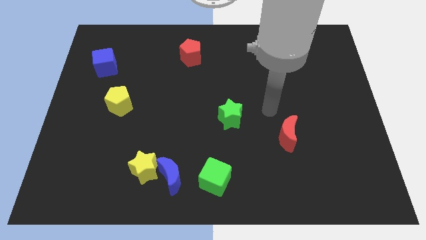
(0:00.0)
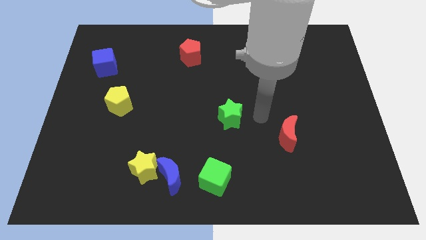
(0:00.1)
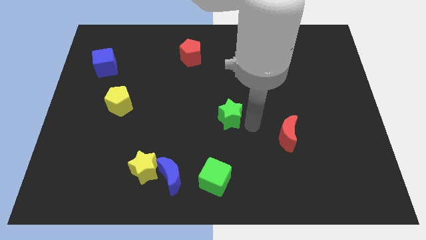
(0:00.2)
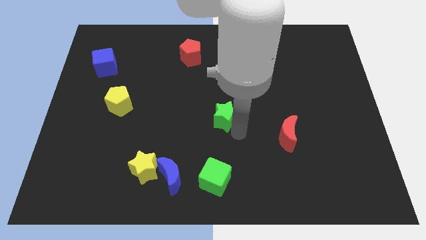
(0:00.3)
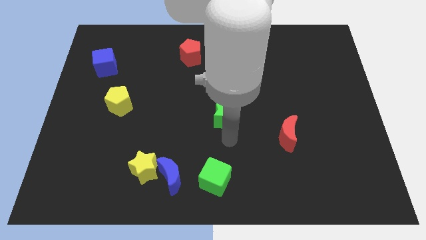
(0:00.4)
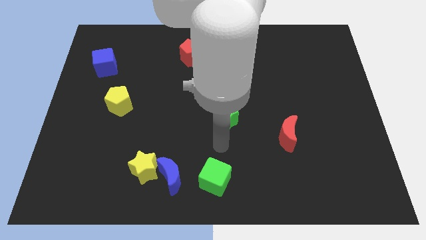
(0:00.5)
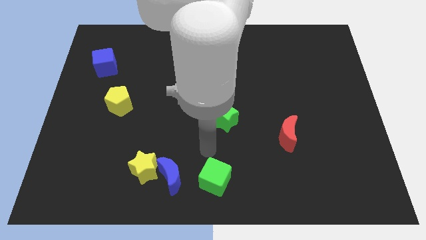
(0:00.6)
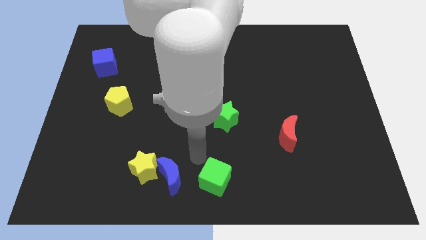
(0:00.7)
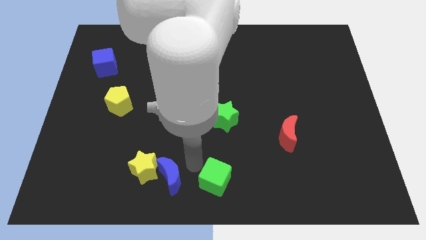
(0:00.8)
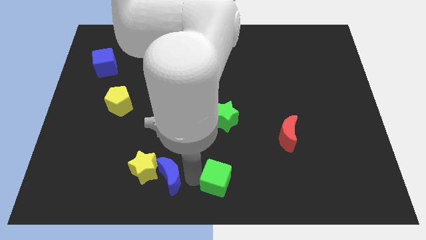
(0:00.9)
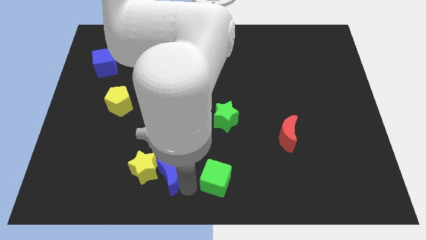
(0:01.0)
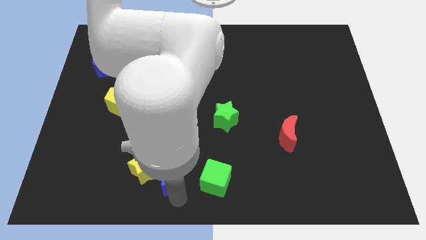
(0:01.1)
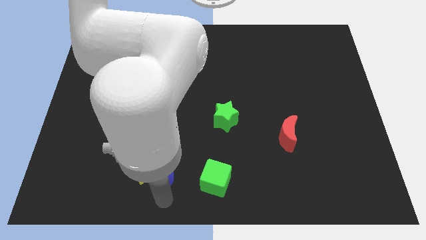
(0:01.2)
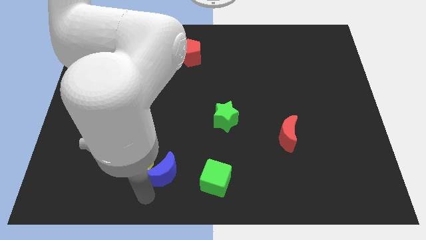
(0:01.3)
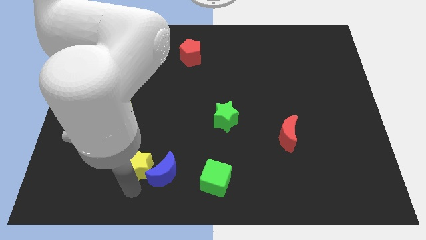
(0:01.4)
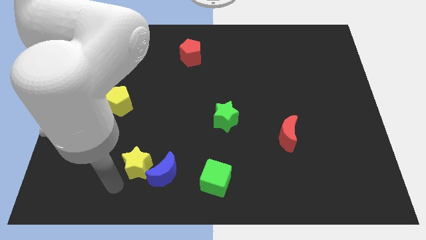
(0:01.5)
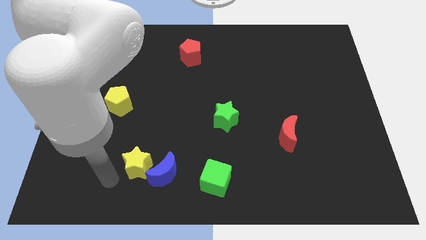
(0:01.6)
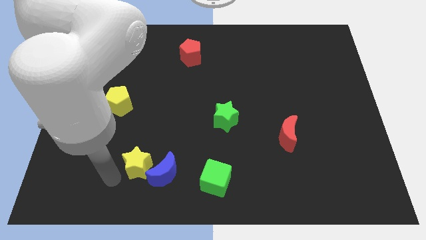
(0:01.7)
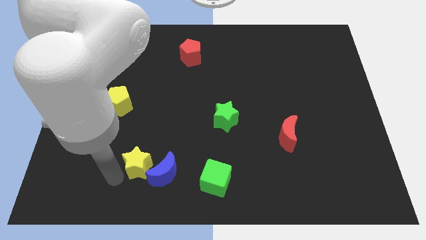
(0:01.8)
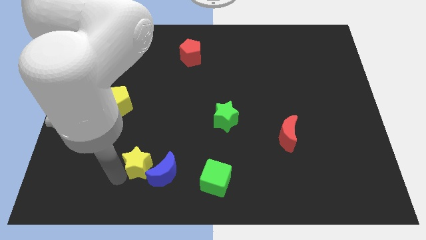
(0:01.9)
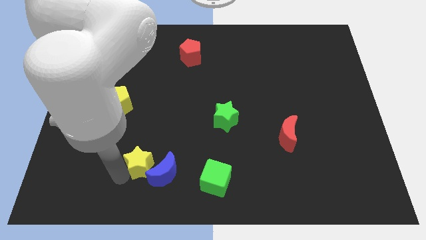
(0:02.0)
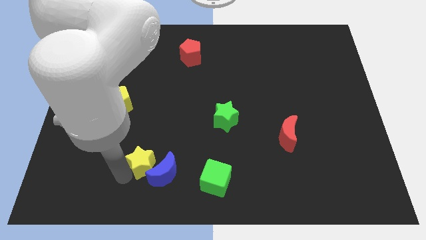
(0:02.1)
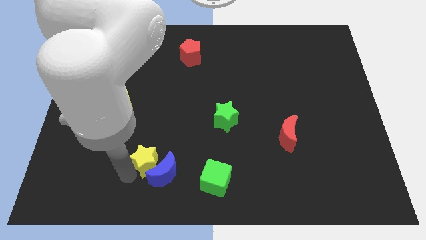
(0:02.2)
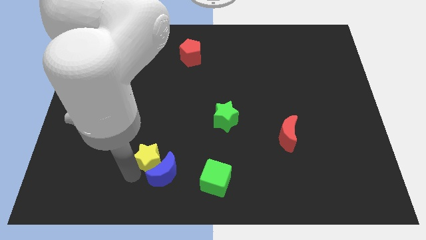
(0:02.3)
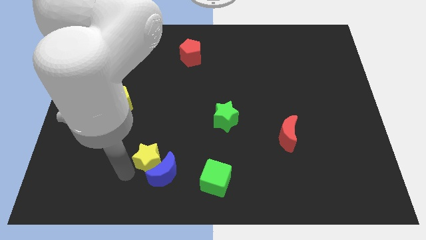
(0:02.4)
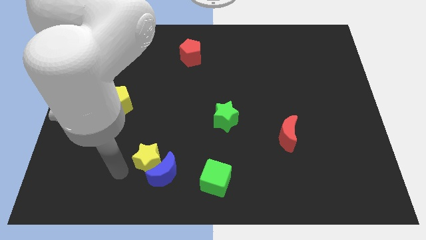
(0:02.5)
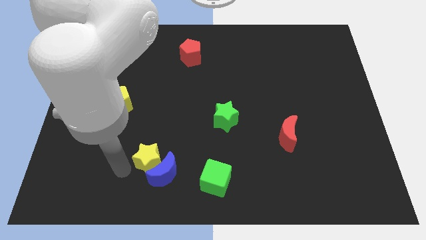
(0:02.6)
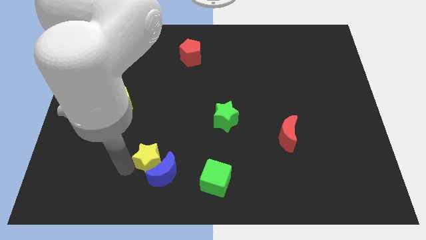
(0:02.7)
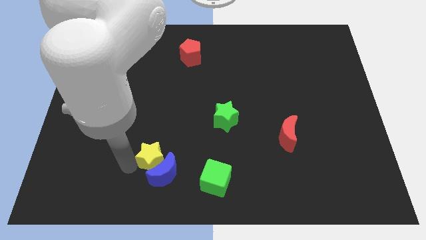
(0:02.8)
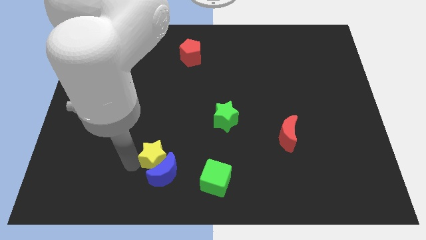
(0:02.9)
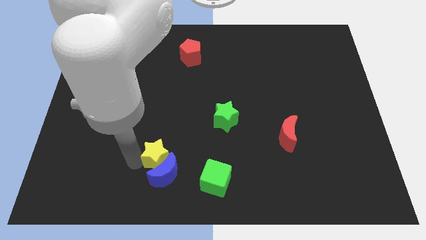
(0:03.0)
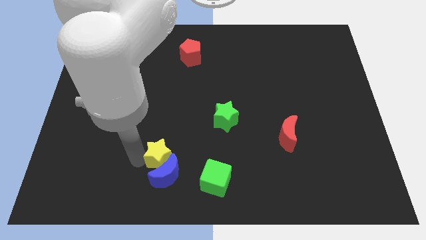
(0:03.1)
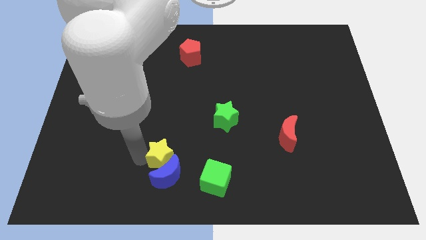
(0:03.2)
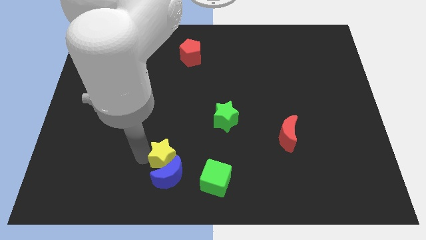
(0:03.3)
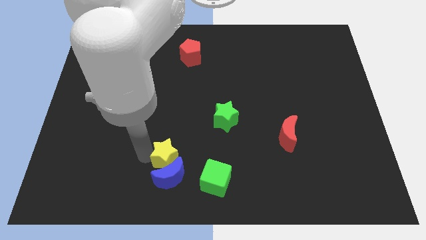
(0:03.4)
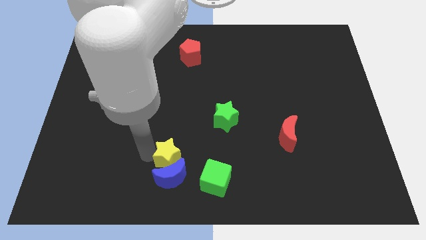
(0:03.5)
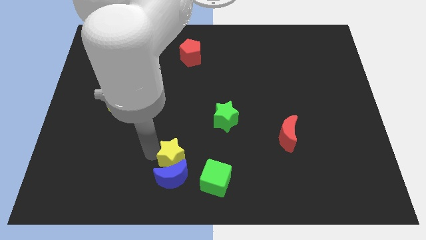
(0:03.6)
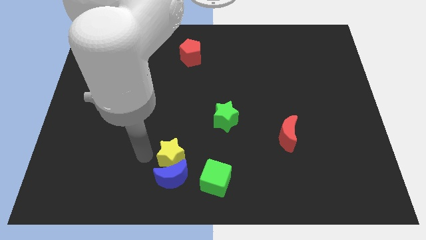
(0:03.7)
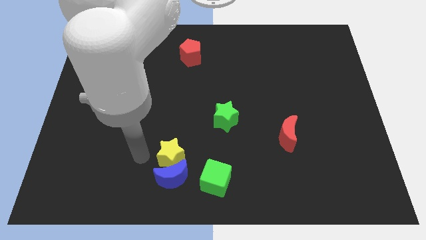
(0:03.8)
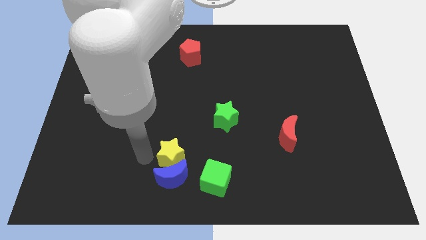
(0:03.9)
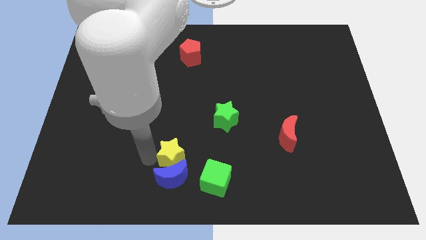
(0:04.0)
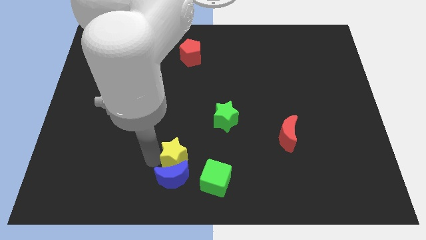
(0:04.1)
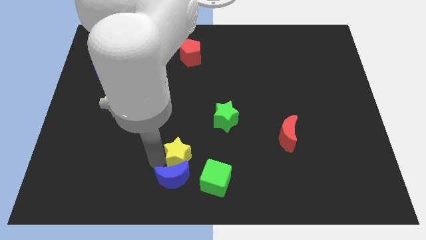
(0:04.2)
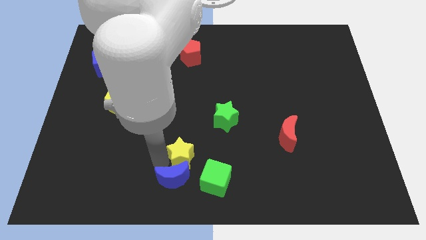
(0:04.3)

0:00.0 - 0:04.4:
push the yellow star a little to the right

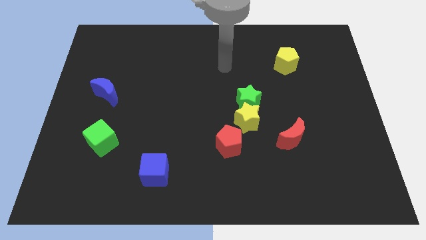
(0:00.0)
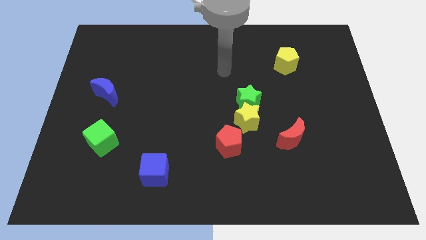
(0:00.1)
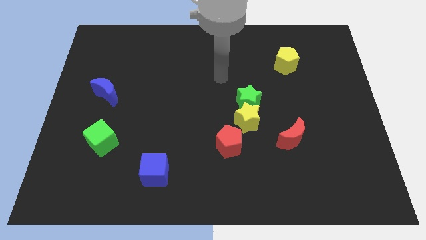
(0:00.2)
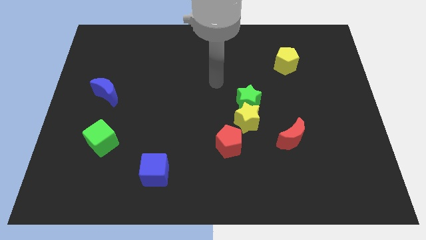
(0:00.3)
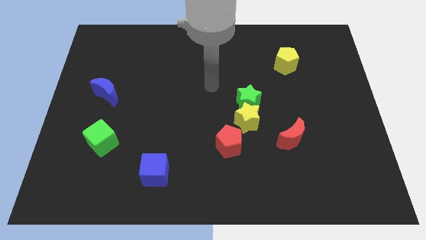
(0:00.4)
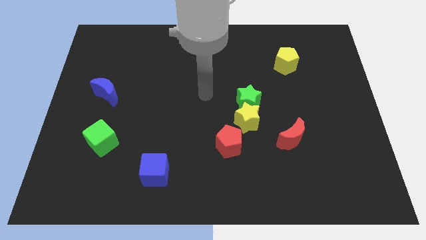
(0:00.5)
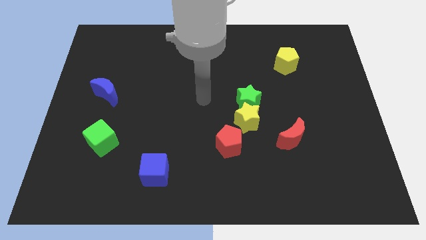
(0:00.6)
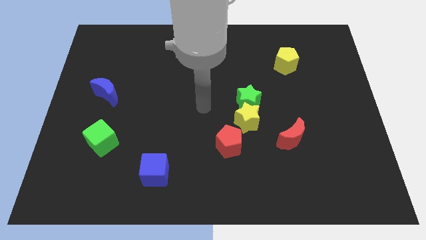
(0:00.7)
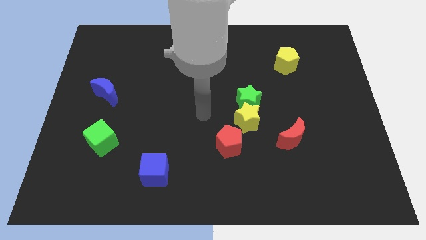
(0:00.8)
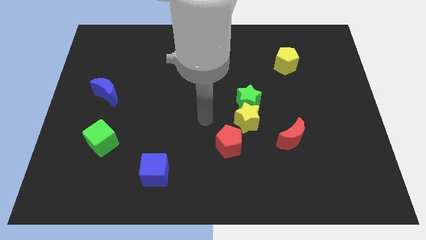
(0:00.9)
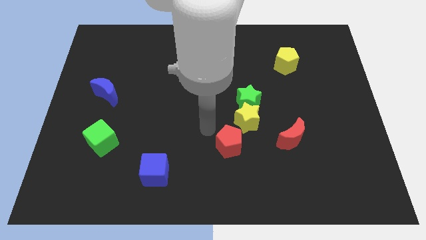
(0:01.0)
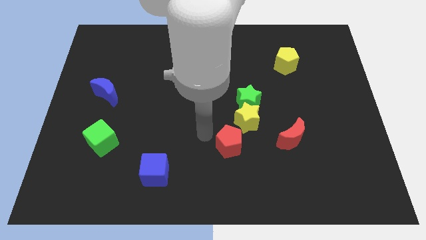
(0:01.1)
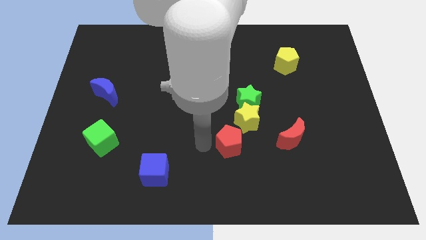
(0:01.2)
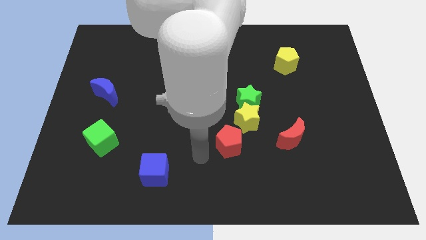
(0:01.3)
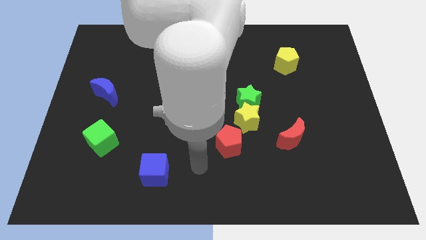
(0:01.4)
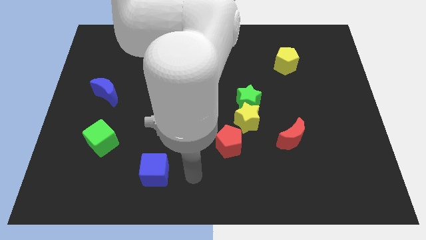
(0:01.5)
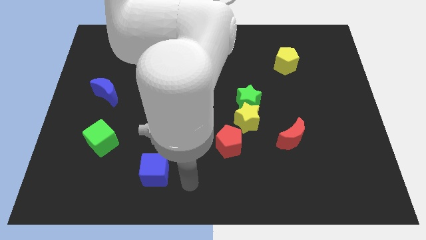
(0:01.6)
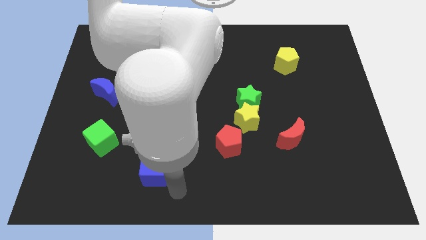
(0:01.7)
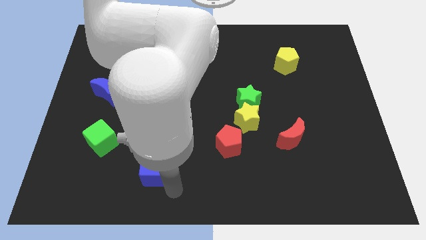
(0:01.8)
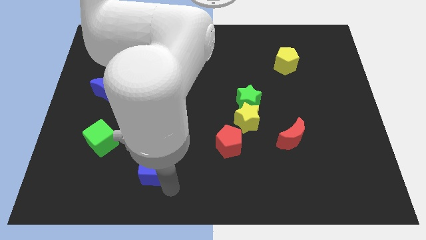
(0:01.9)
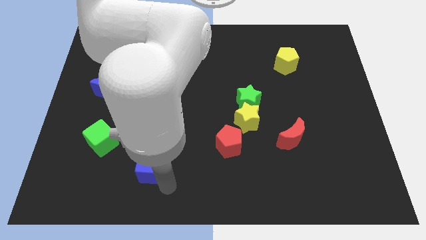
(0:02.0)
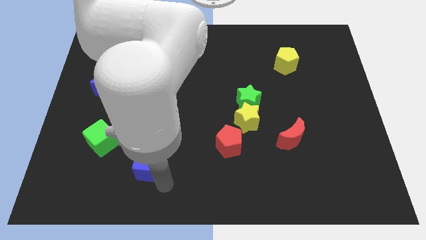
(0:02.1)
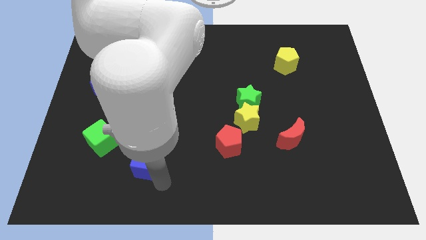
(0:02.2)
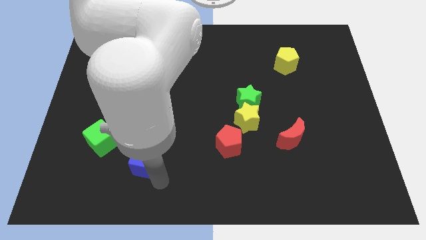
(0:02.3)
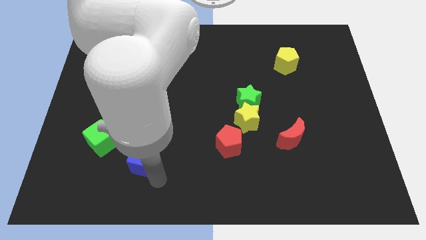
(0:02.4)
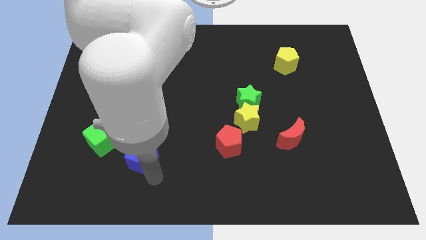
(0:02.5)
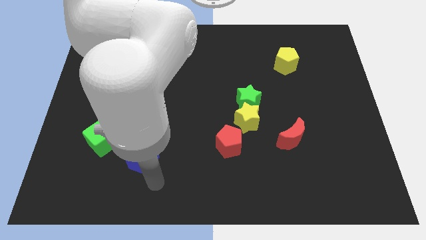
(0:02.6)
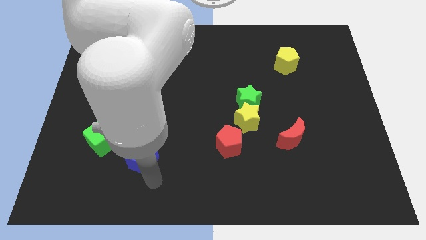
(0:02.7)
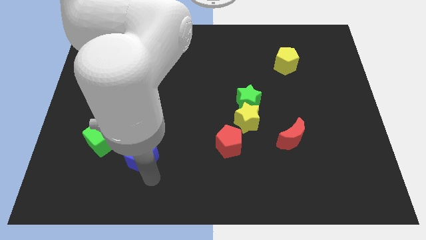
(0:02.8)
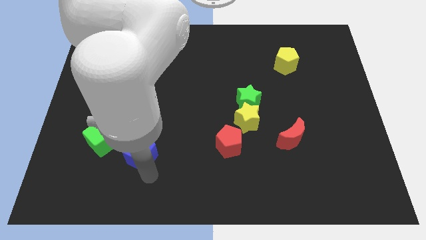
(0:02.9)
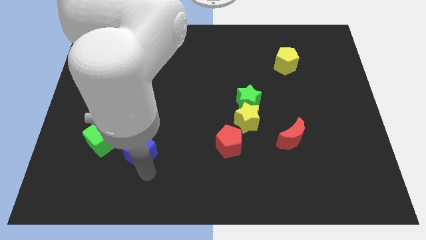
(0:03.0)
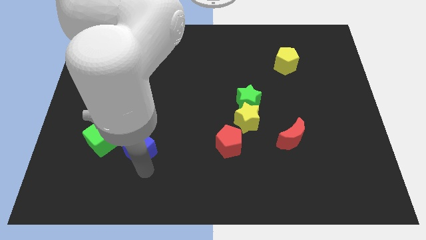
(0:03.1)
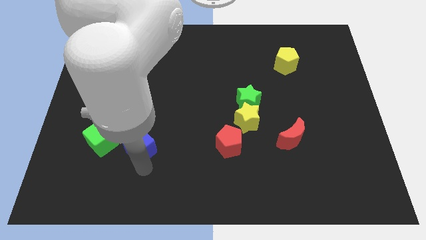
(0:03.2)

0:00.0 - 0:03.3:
slightly push the blue cube upwards and left diagonally

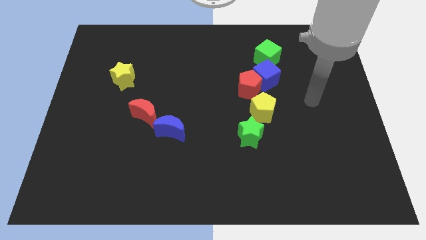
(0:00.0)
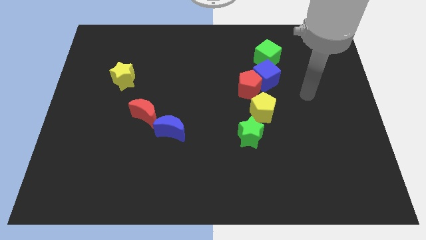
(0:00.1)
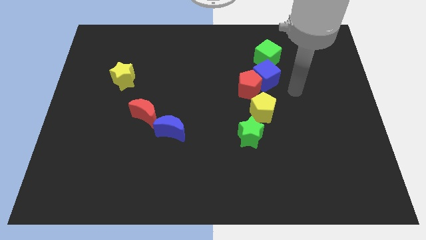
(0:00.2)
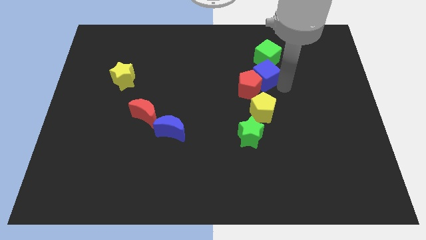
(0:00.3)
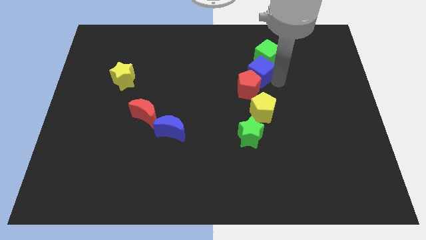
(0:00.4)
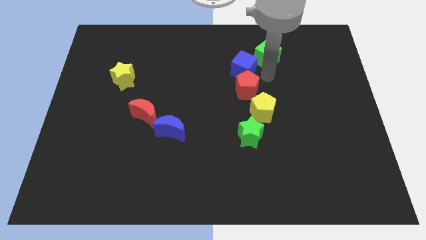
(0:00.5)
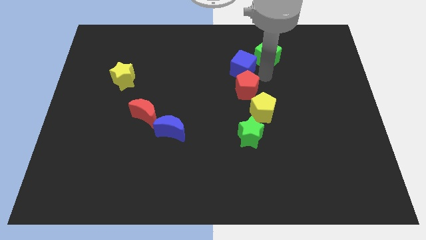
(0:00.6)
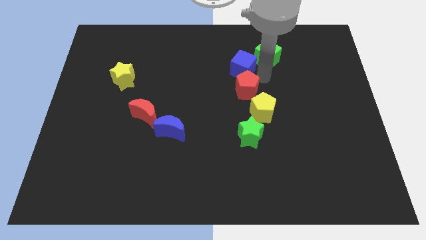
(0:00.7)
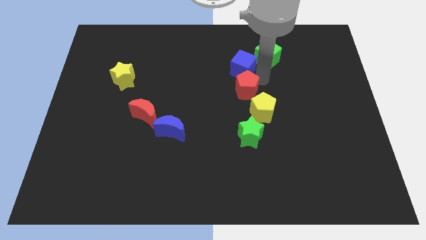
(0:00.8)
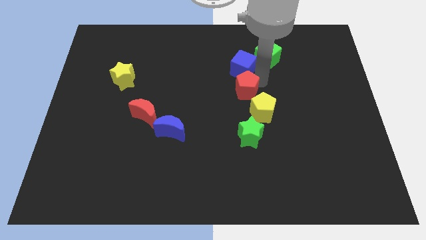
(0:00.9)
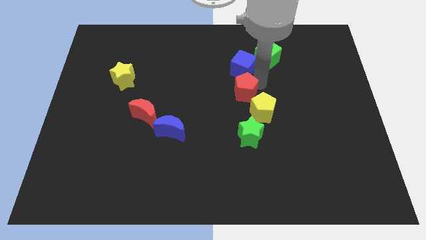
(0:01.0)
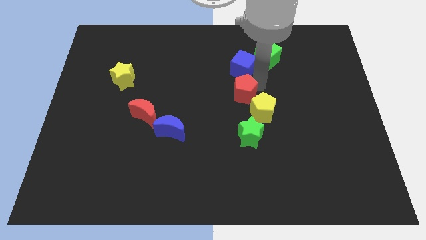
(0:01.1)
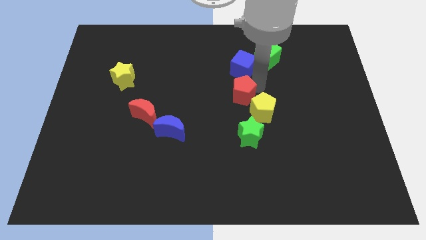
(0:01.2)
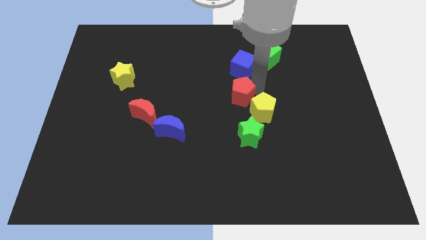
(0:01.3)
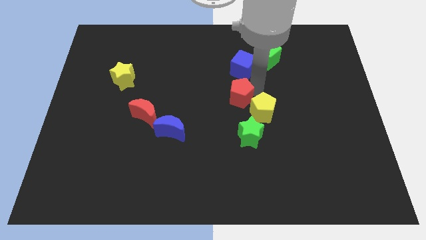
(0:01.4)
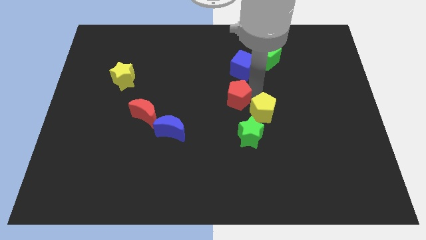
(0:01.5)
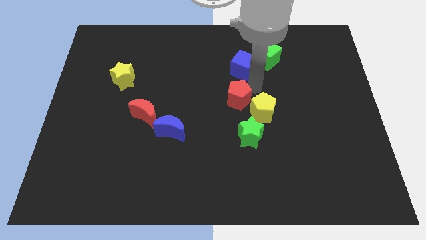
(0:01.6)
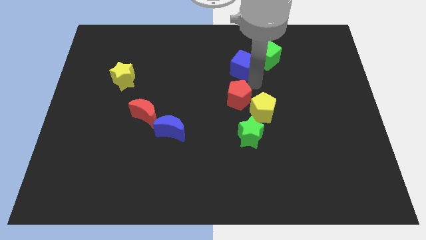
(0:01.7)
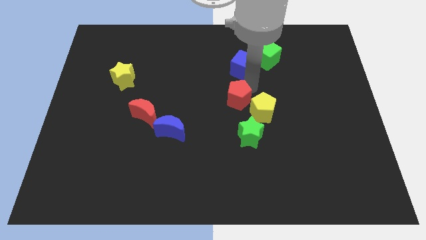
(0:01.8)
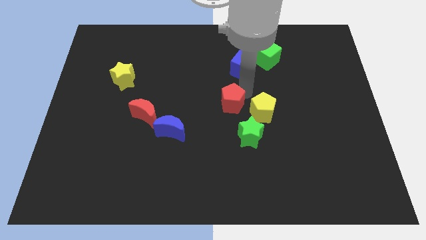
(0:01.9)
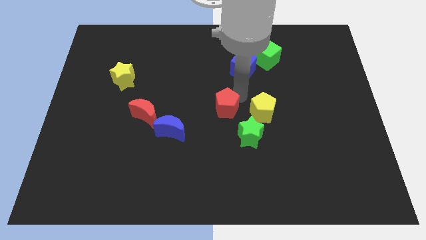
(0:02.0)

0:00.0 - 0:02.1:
slide the red pentagon down and to the left diagonally somewhat
